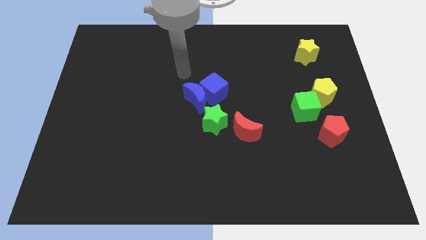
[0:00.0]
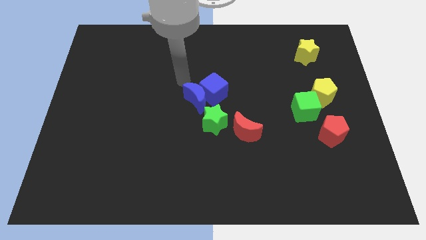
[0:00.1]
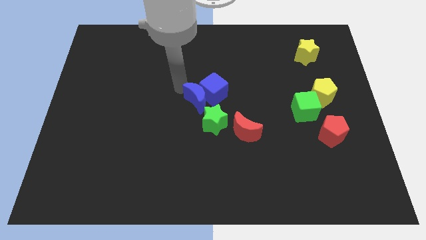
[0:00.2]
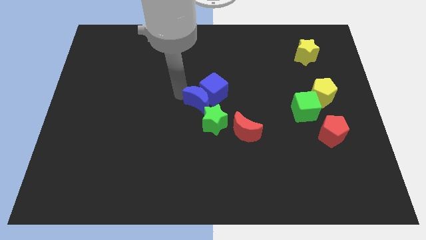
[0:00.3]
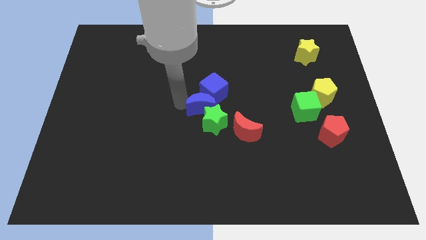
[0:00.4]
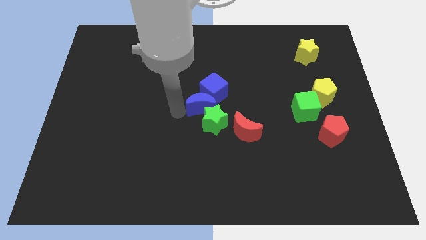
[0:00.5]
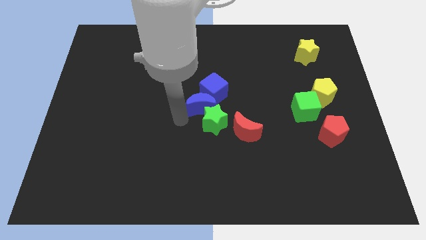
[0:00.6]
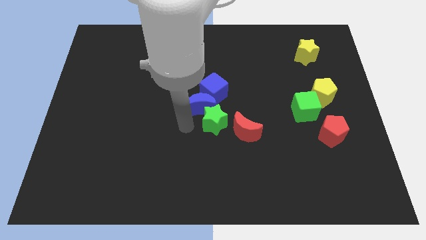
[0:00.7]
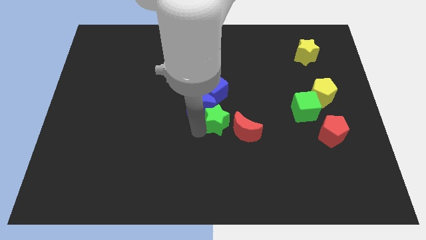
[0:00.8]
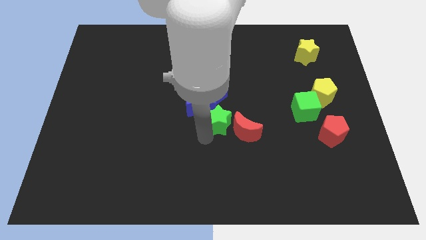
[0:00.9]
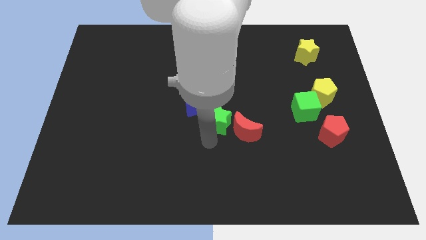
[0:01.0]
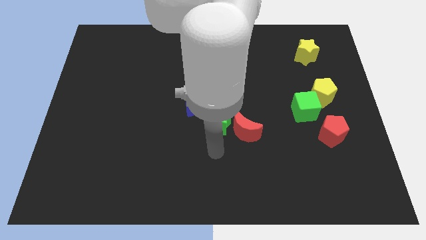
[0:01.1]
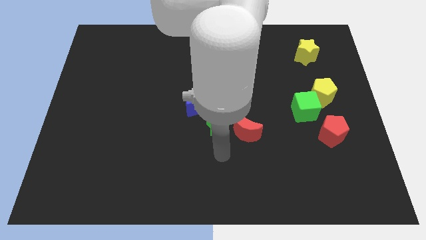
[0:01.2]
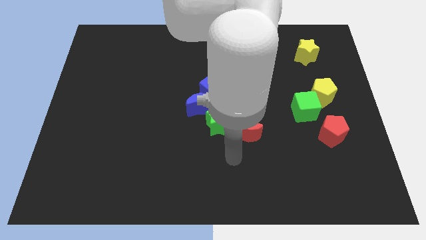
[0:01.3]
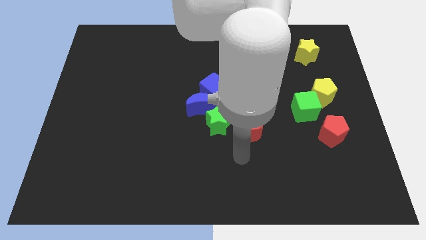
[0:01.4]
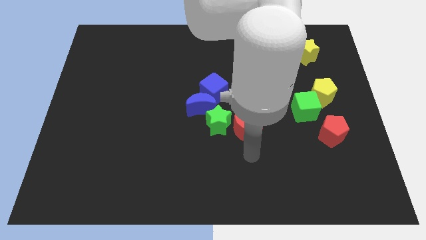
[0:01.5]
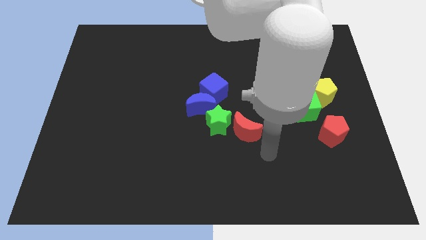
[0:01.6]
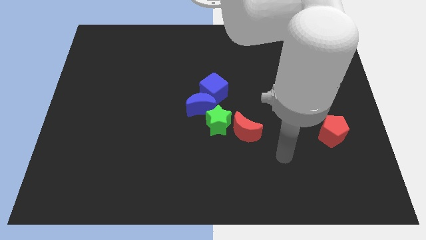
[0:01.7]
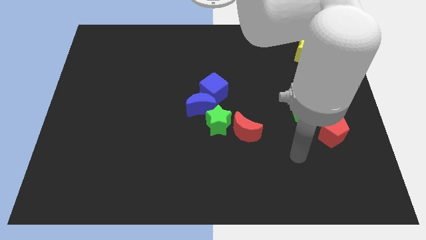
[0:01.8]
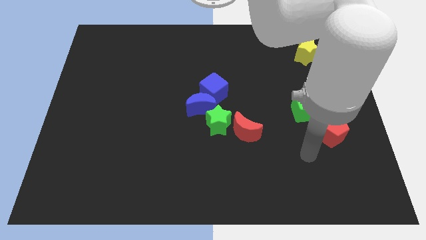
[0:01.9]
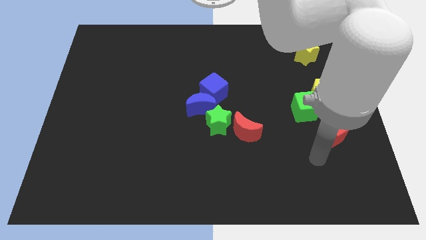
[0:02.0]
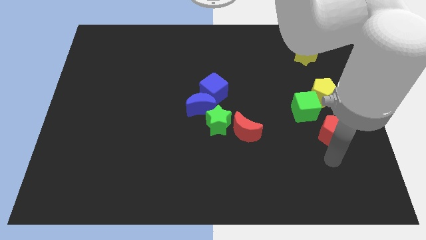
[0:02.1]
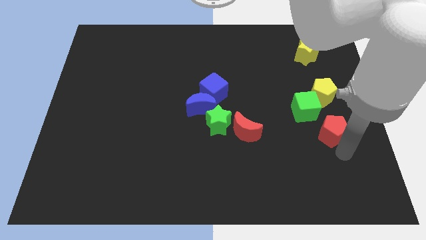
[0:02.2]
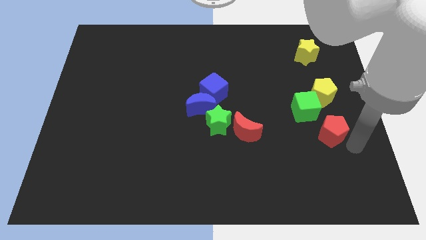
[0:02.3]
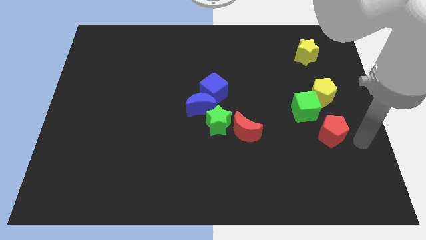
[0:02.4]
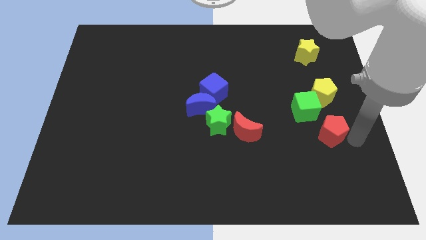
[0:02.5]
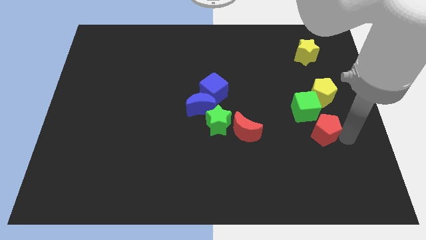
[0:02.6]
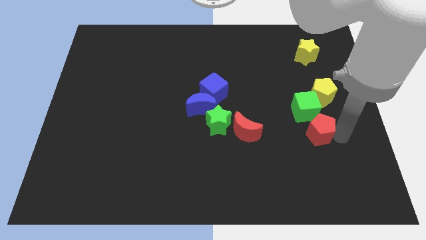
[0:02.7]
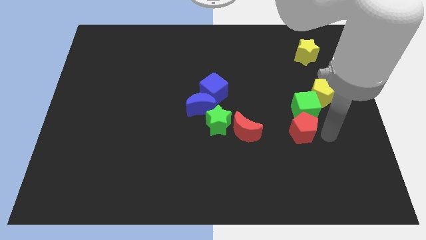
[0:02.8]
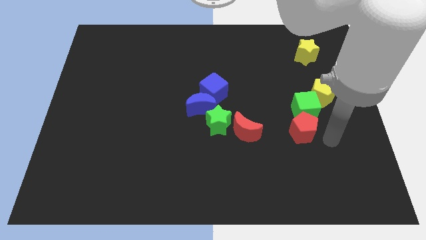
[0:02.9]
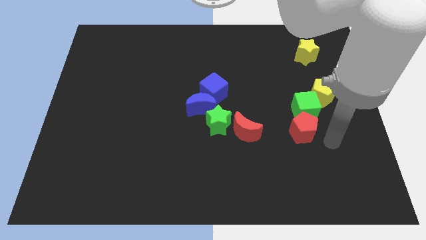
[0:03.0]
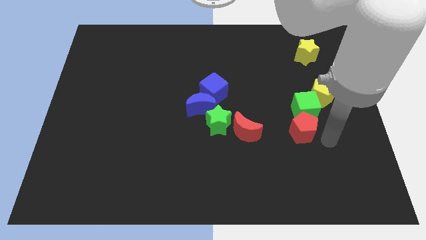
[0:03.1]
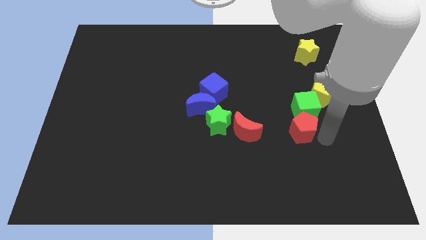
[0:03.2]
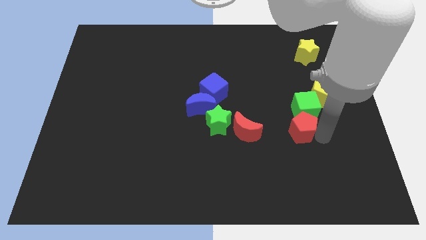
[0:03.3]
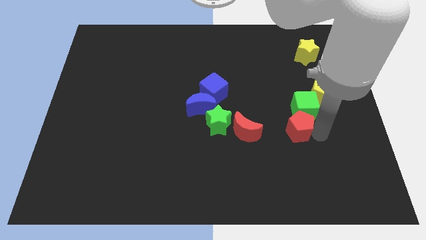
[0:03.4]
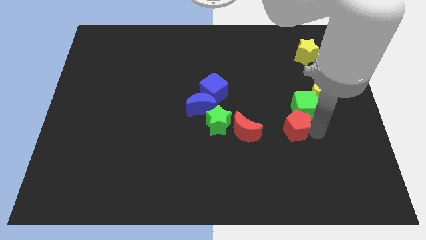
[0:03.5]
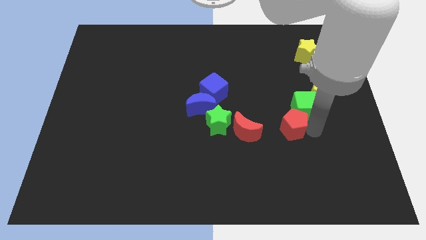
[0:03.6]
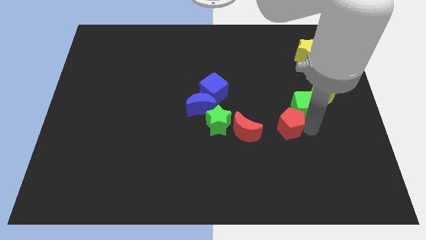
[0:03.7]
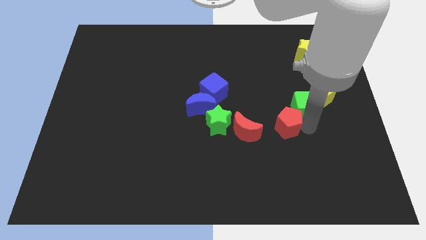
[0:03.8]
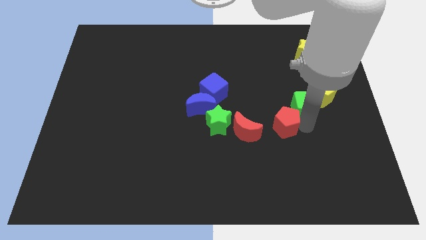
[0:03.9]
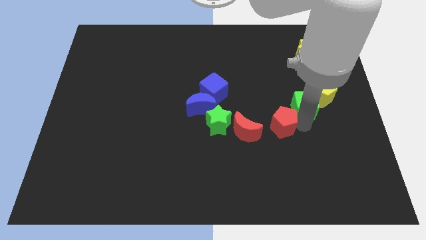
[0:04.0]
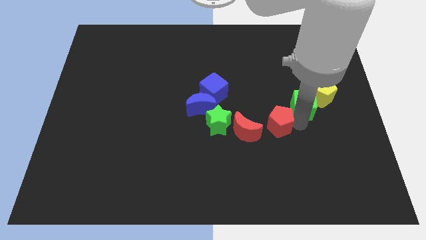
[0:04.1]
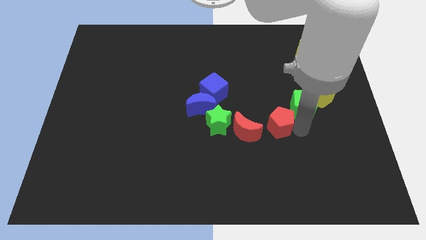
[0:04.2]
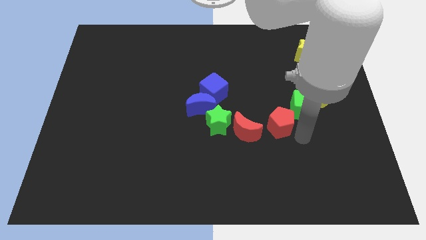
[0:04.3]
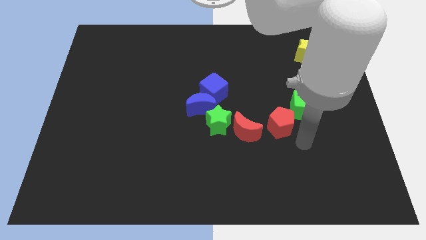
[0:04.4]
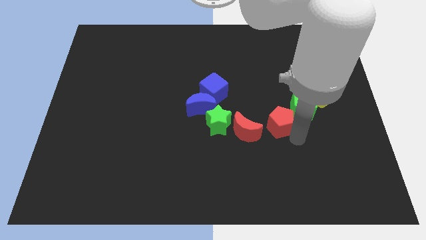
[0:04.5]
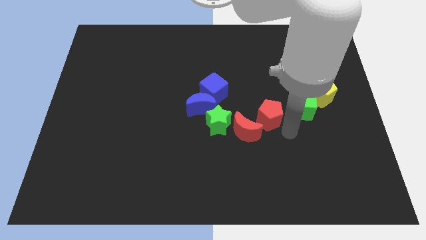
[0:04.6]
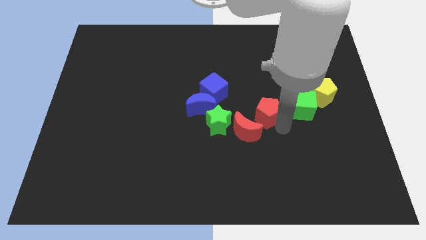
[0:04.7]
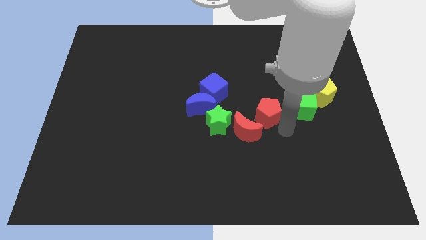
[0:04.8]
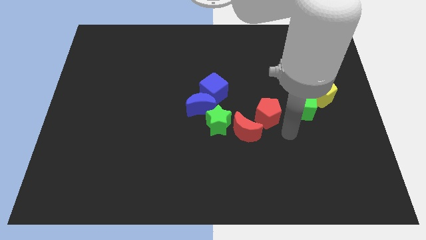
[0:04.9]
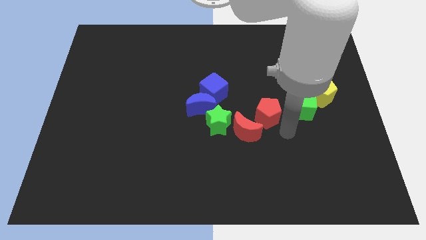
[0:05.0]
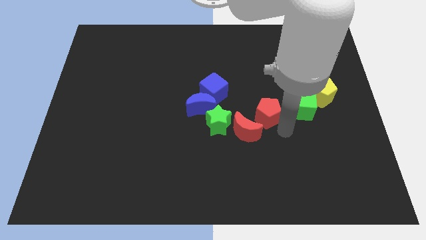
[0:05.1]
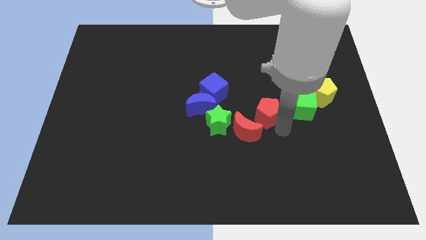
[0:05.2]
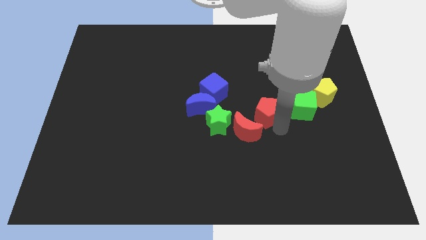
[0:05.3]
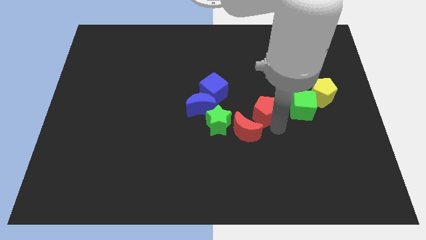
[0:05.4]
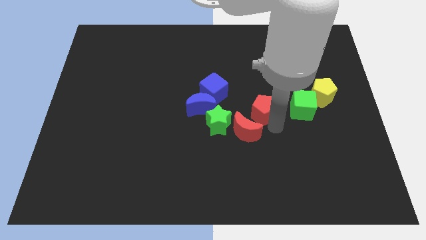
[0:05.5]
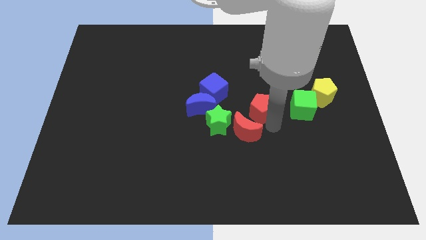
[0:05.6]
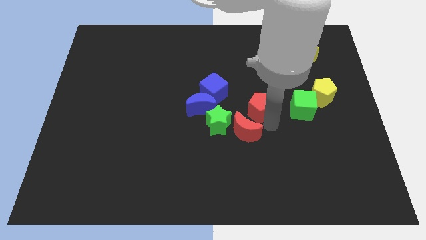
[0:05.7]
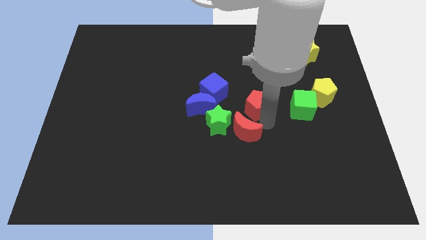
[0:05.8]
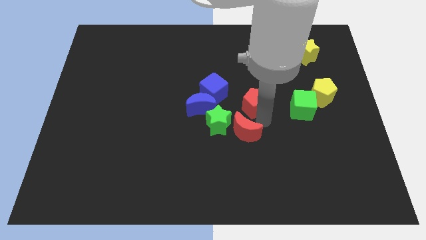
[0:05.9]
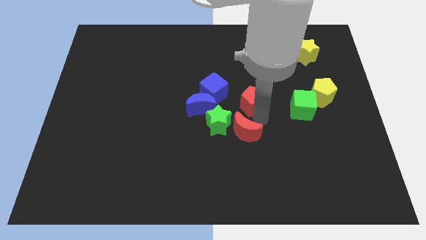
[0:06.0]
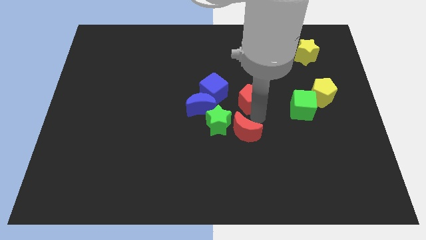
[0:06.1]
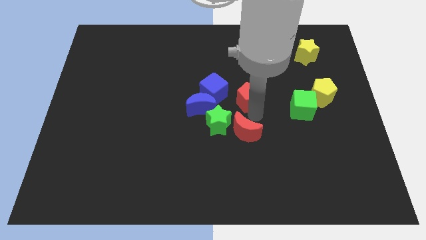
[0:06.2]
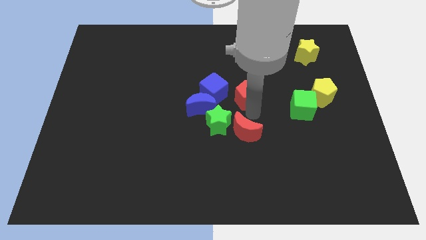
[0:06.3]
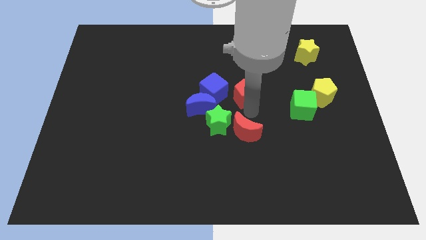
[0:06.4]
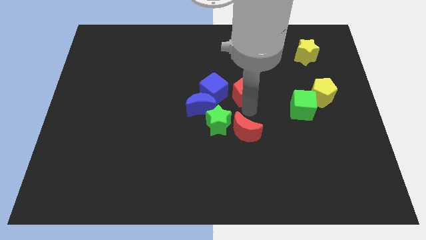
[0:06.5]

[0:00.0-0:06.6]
push the red pentagon upwards and left

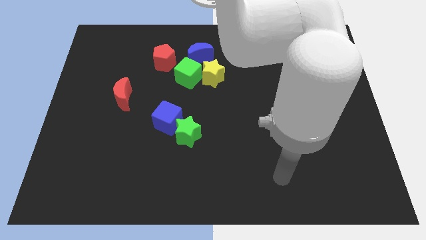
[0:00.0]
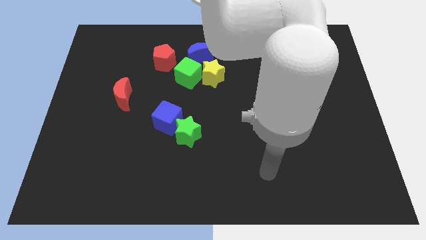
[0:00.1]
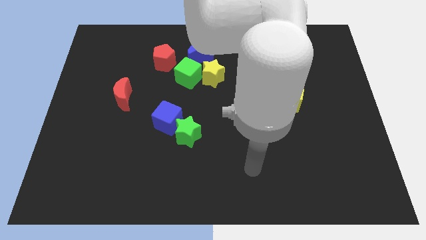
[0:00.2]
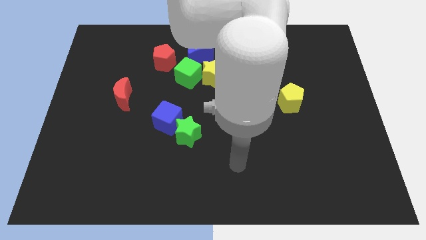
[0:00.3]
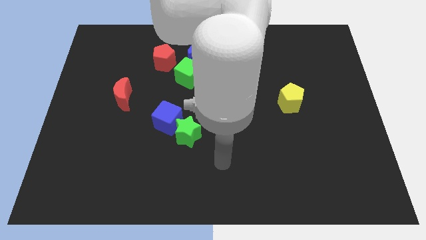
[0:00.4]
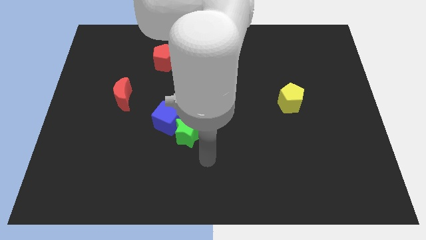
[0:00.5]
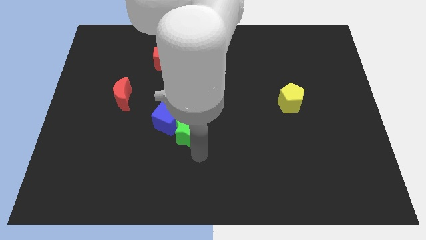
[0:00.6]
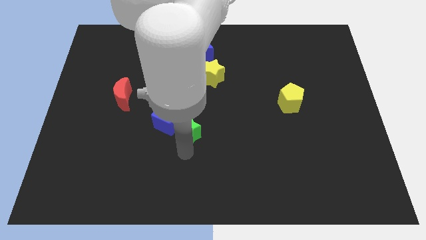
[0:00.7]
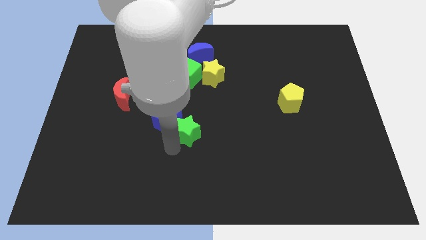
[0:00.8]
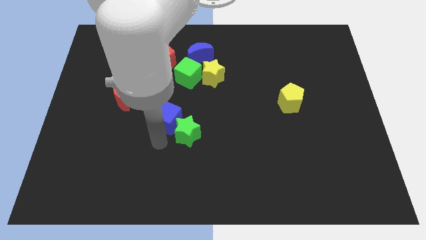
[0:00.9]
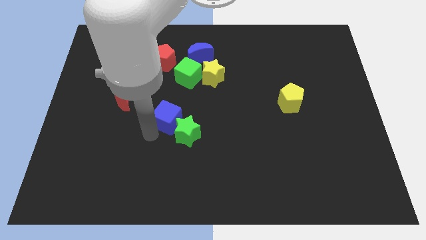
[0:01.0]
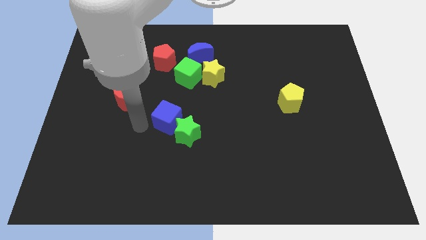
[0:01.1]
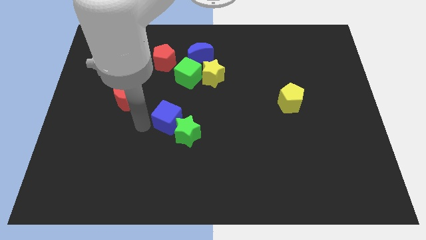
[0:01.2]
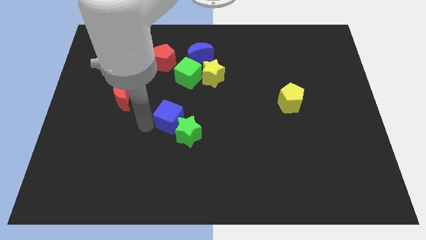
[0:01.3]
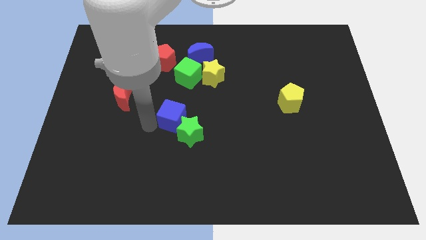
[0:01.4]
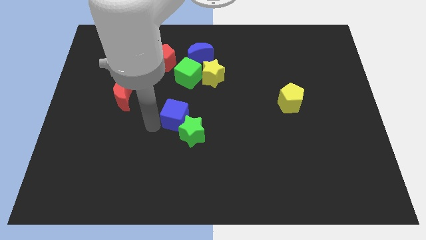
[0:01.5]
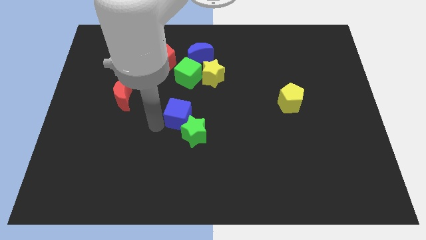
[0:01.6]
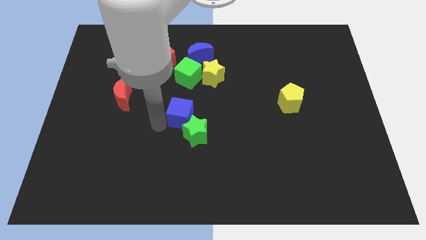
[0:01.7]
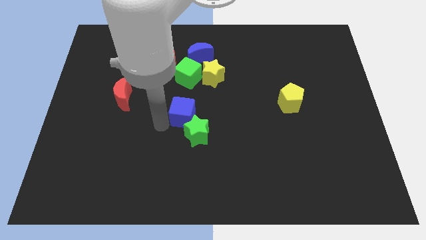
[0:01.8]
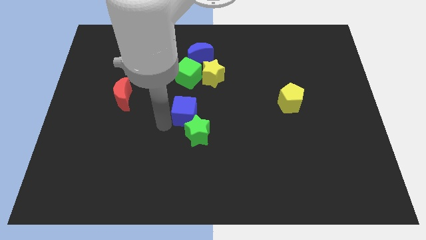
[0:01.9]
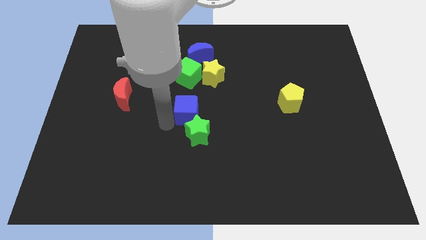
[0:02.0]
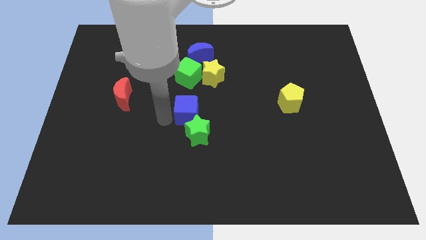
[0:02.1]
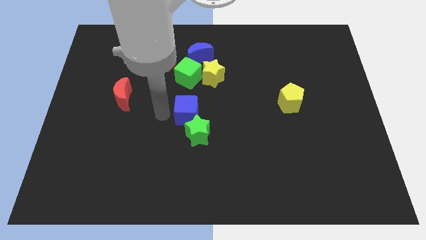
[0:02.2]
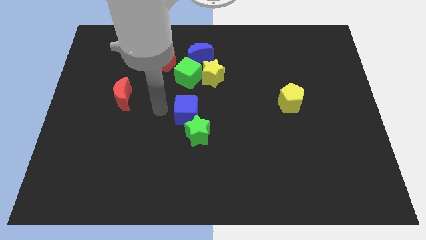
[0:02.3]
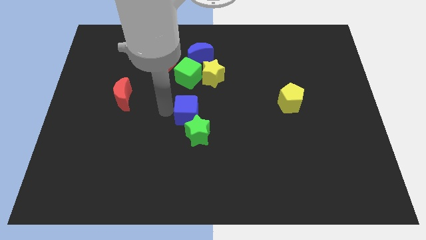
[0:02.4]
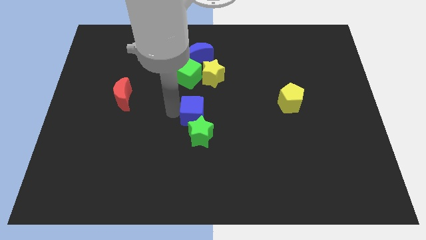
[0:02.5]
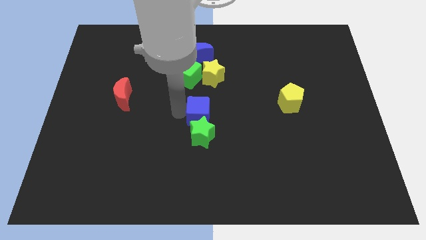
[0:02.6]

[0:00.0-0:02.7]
push the blue cube a little bit to the right
